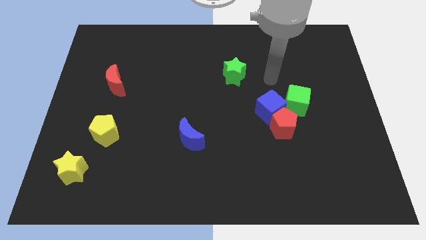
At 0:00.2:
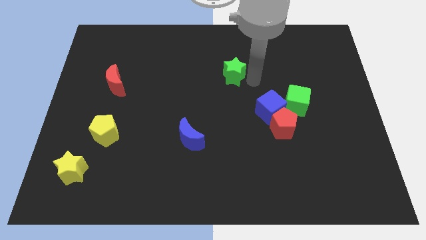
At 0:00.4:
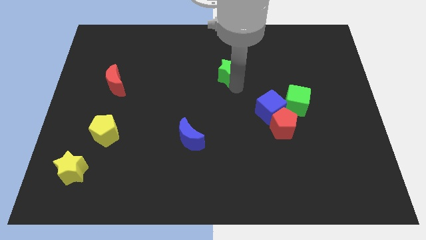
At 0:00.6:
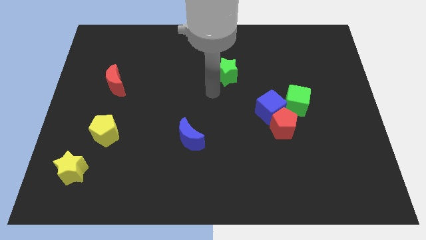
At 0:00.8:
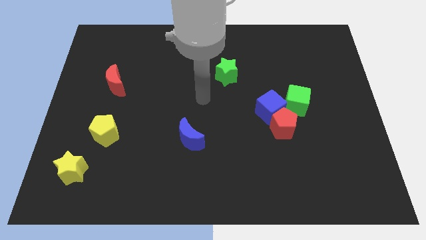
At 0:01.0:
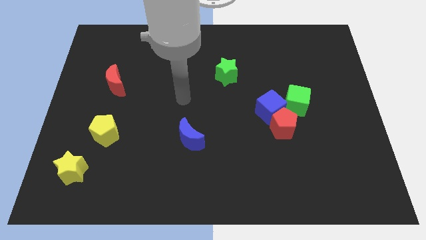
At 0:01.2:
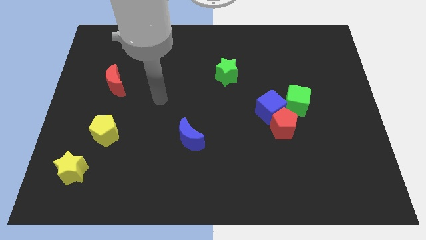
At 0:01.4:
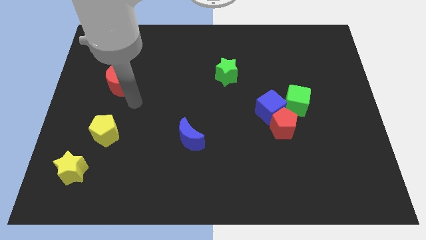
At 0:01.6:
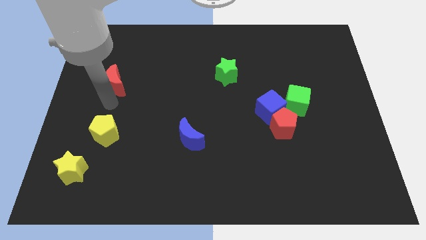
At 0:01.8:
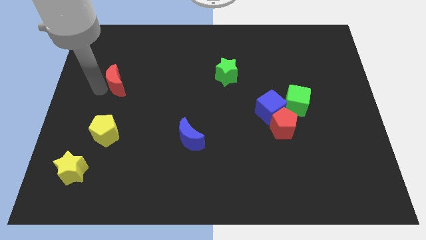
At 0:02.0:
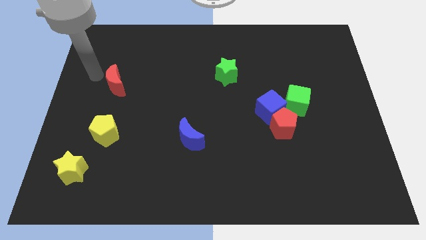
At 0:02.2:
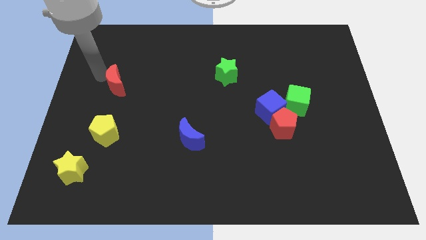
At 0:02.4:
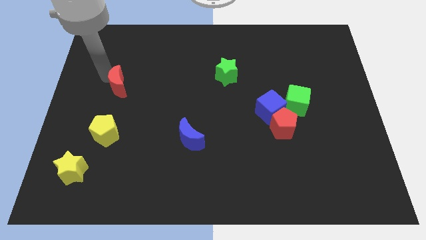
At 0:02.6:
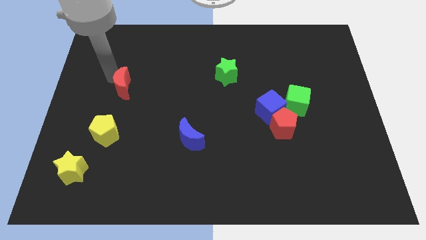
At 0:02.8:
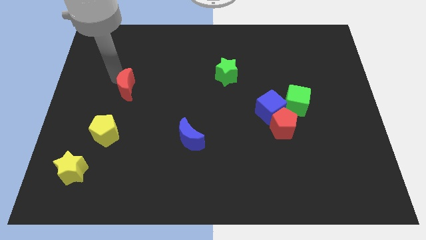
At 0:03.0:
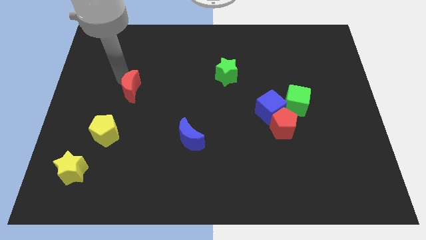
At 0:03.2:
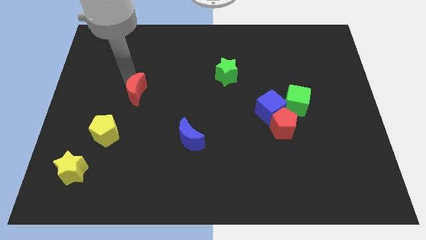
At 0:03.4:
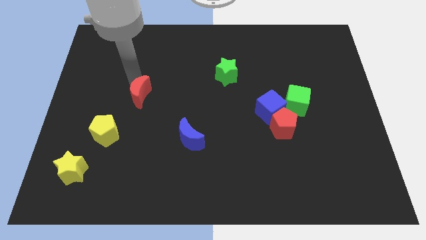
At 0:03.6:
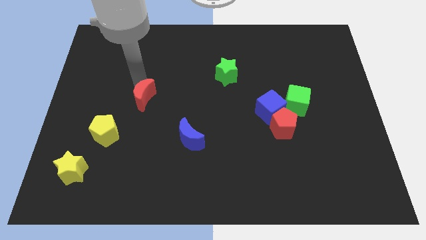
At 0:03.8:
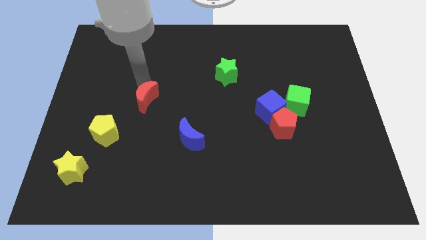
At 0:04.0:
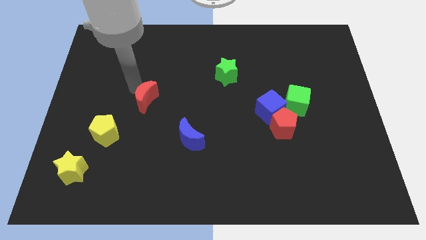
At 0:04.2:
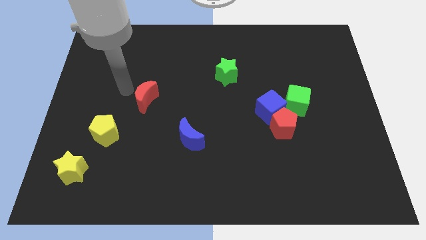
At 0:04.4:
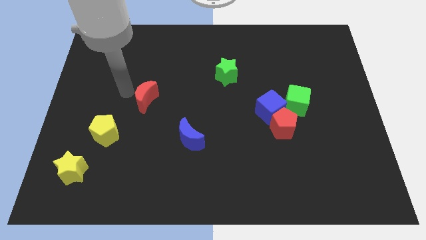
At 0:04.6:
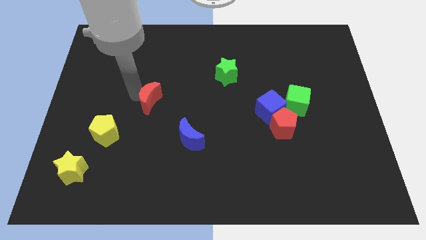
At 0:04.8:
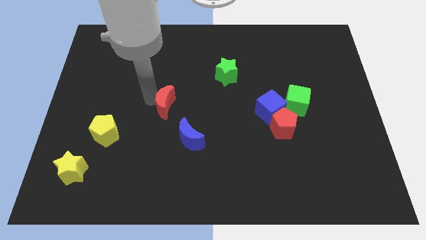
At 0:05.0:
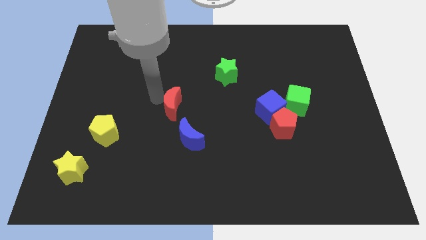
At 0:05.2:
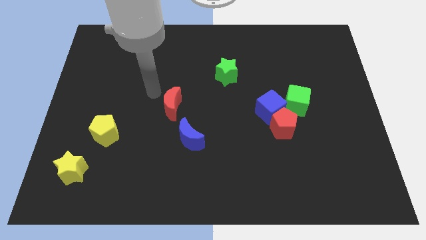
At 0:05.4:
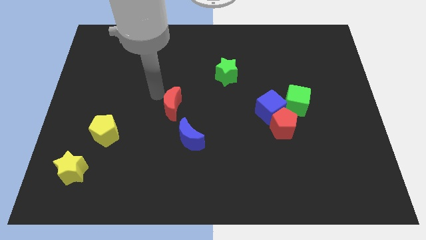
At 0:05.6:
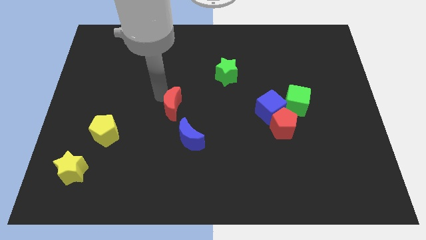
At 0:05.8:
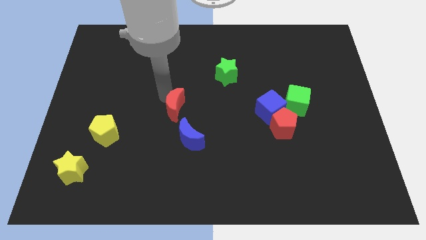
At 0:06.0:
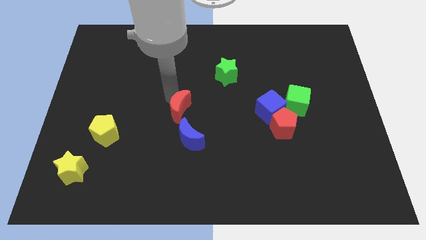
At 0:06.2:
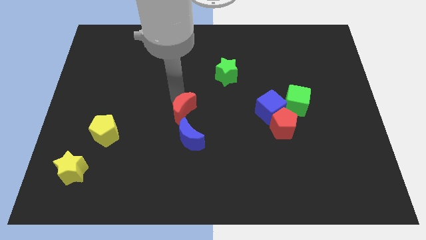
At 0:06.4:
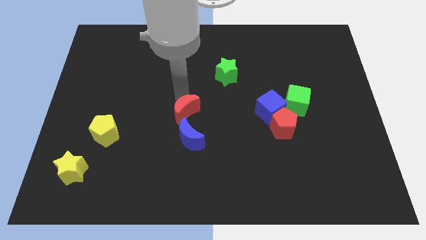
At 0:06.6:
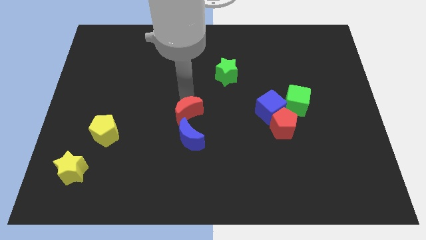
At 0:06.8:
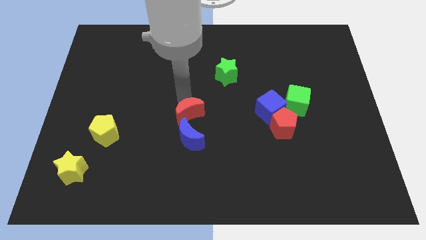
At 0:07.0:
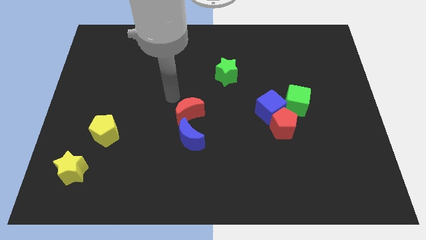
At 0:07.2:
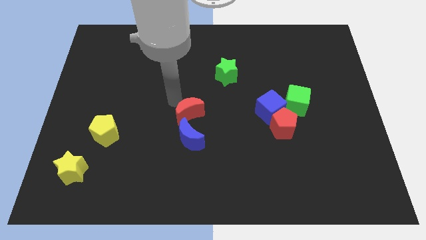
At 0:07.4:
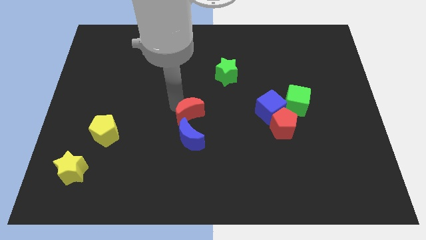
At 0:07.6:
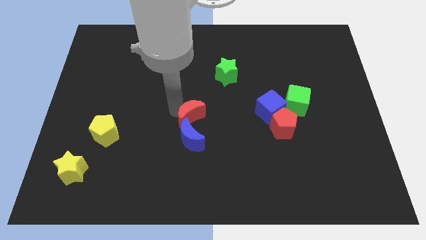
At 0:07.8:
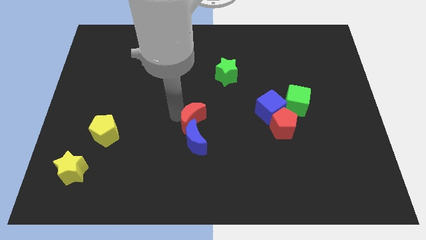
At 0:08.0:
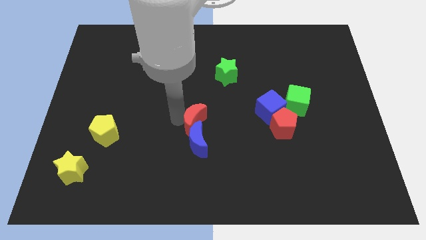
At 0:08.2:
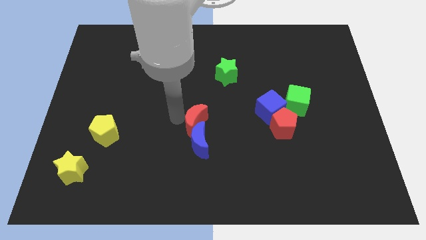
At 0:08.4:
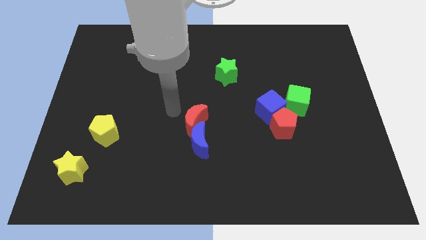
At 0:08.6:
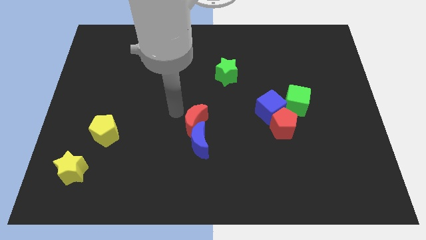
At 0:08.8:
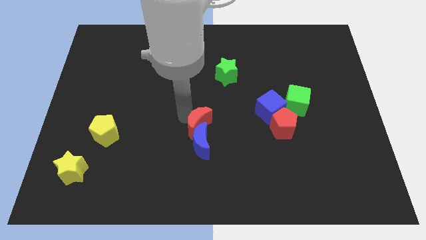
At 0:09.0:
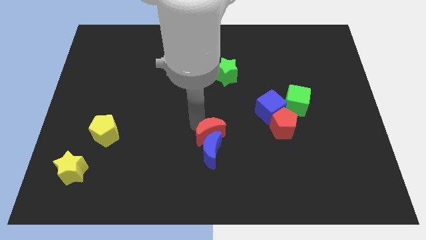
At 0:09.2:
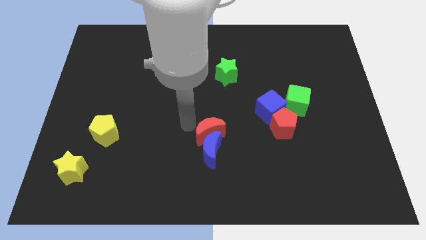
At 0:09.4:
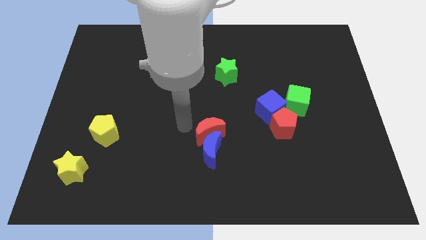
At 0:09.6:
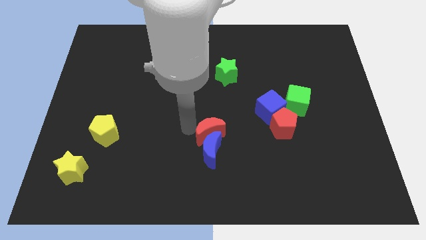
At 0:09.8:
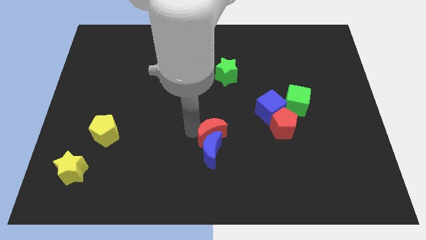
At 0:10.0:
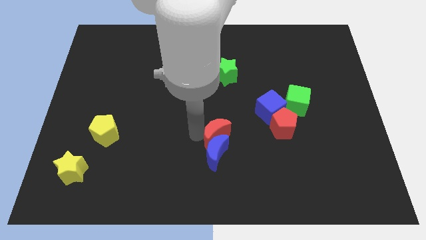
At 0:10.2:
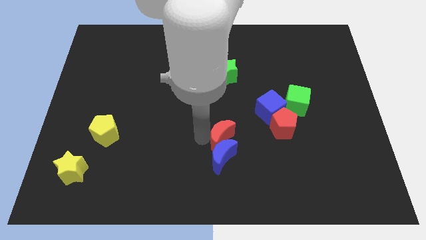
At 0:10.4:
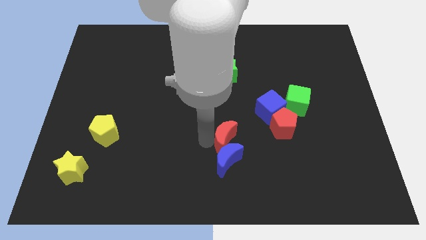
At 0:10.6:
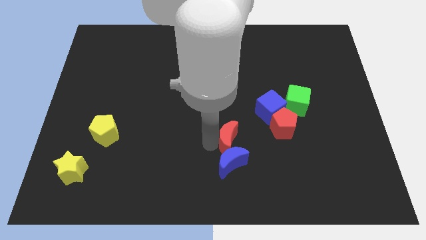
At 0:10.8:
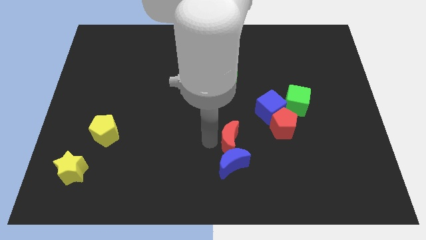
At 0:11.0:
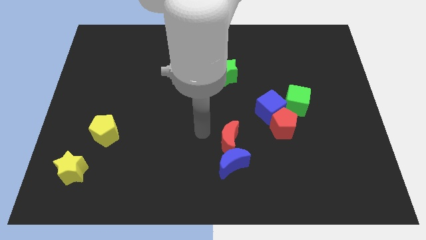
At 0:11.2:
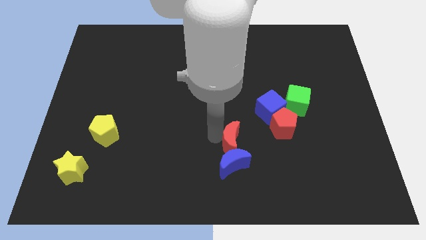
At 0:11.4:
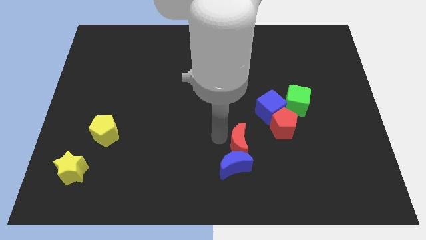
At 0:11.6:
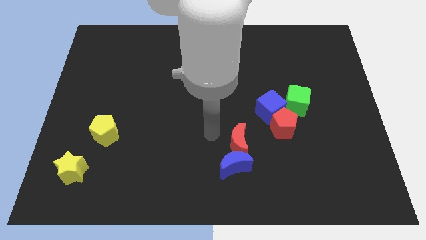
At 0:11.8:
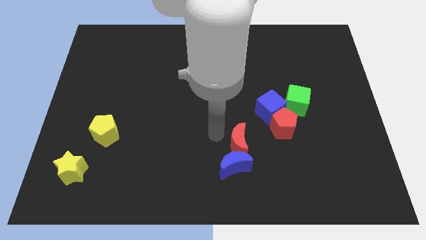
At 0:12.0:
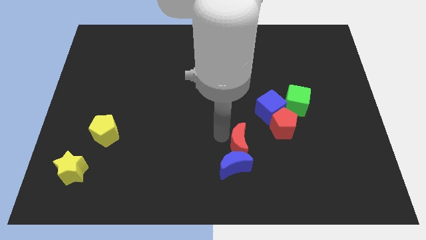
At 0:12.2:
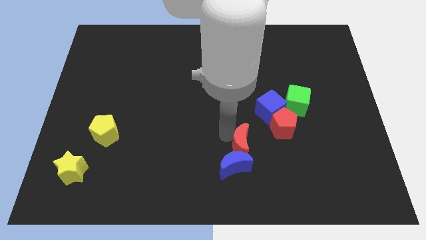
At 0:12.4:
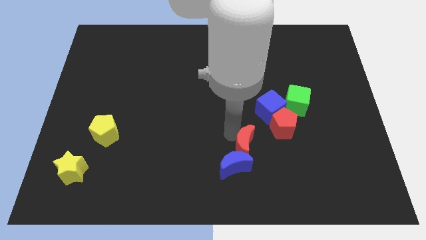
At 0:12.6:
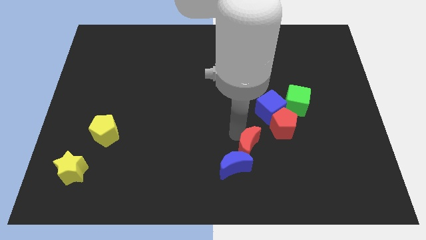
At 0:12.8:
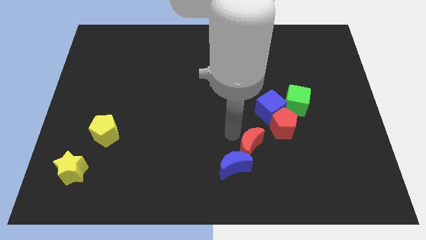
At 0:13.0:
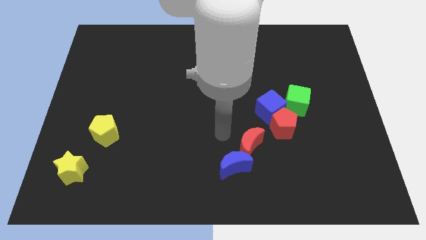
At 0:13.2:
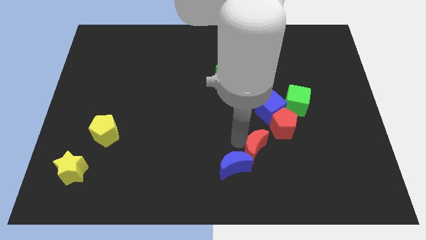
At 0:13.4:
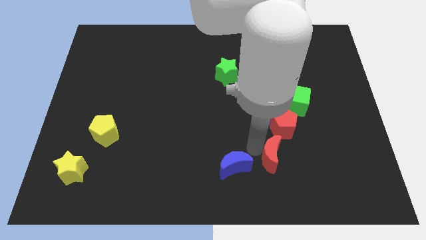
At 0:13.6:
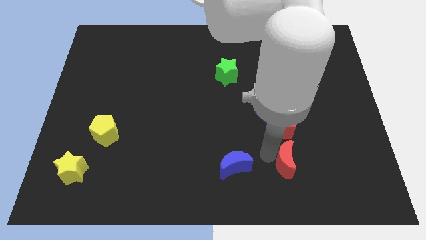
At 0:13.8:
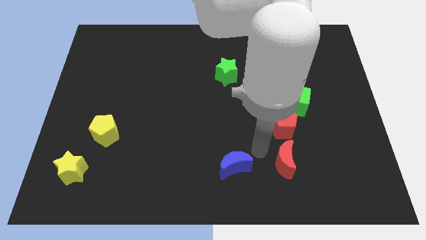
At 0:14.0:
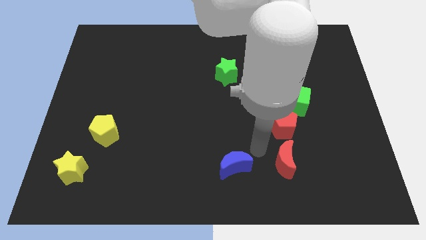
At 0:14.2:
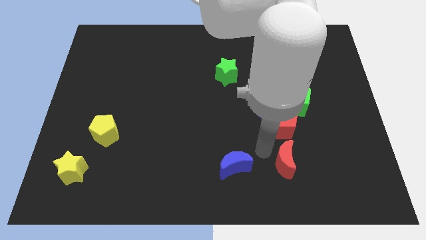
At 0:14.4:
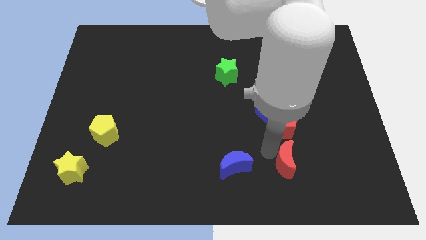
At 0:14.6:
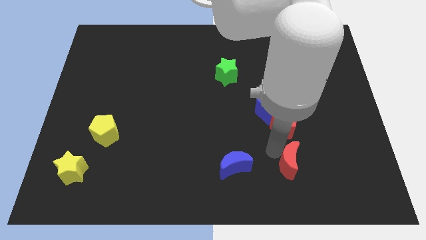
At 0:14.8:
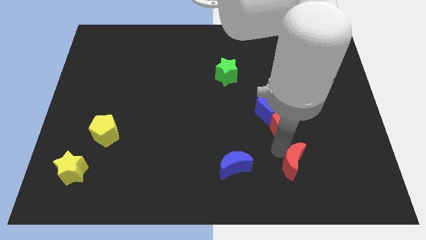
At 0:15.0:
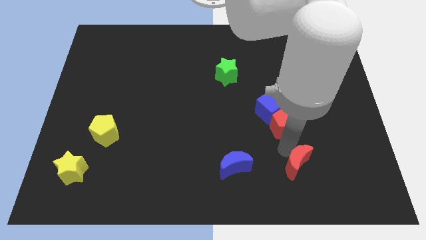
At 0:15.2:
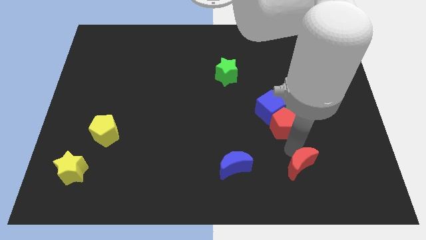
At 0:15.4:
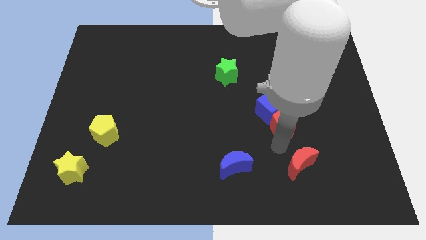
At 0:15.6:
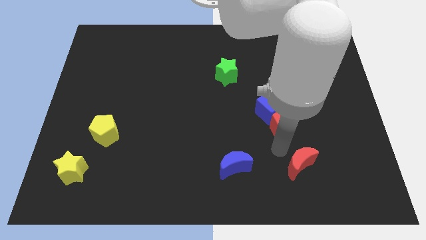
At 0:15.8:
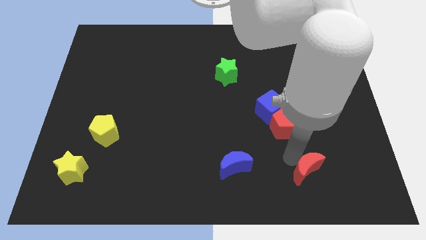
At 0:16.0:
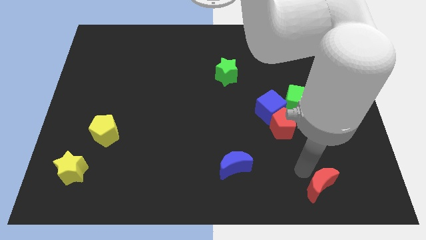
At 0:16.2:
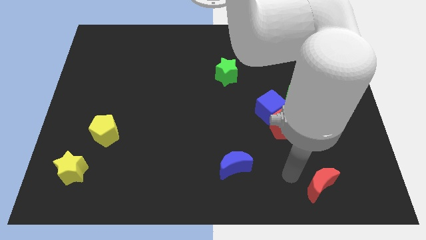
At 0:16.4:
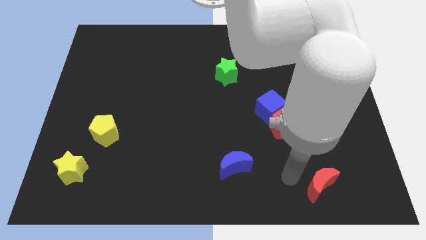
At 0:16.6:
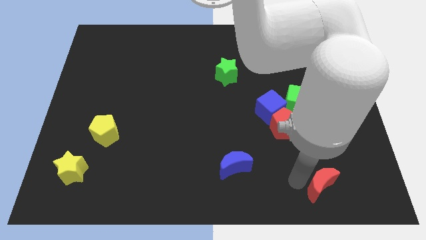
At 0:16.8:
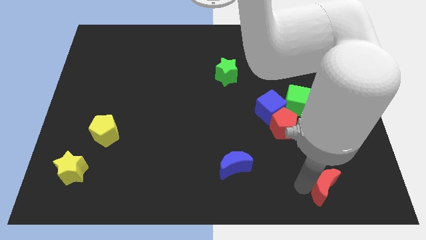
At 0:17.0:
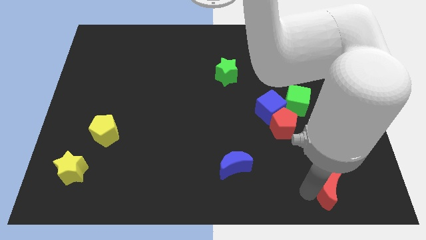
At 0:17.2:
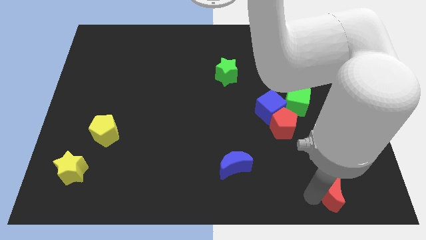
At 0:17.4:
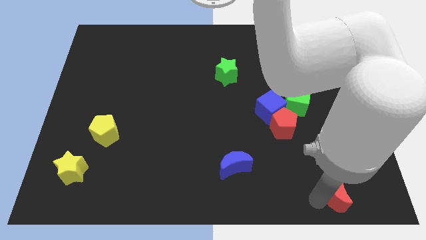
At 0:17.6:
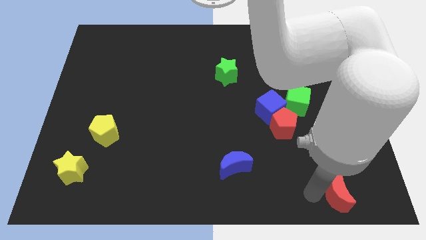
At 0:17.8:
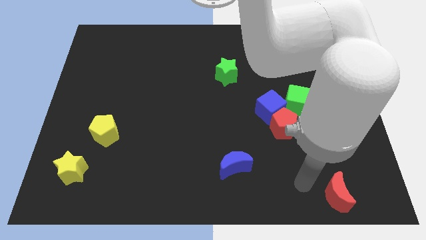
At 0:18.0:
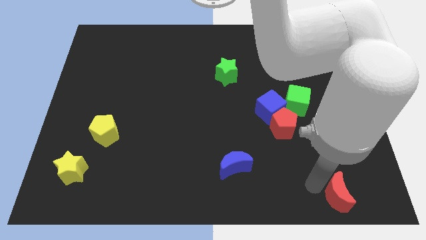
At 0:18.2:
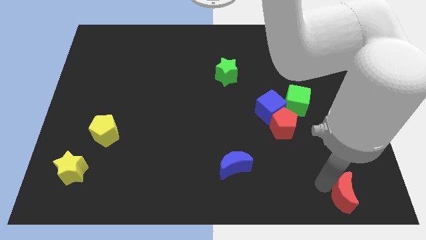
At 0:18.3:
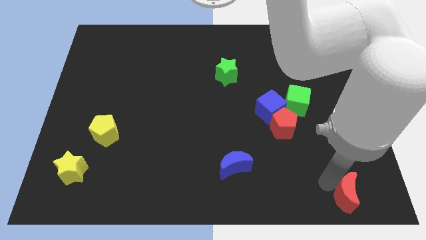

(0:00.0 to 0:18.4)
slide the red moon to the bottom right corner
